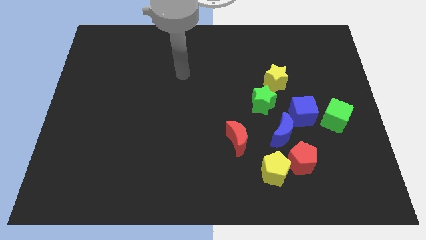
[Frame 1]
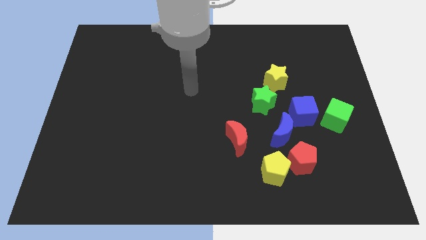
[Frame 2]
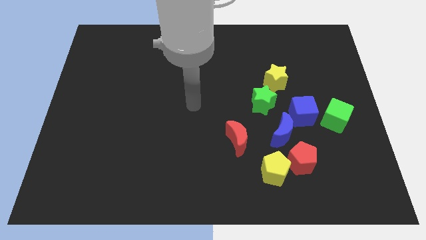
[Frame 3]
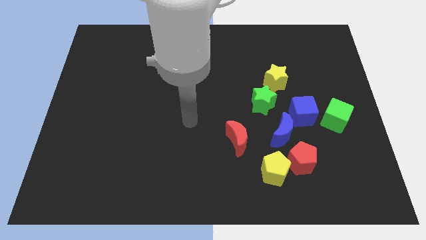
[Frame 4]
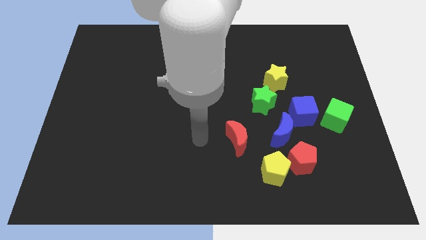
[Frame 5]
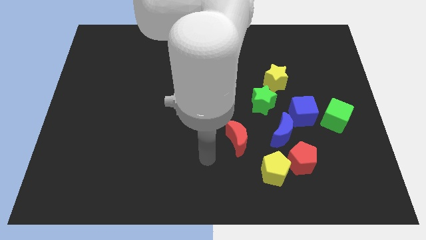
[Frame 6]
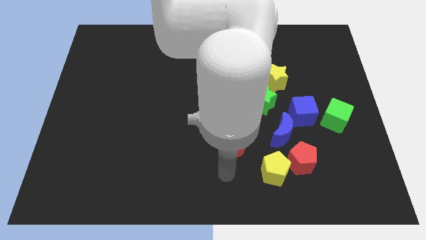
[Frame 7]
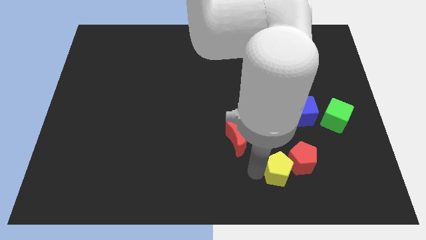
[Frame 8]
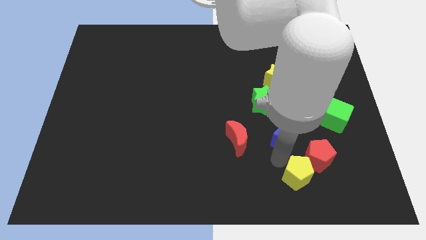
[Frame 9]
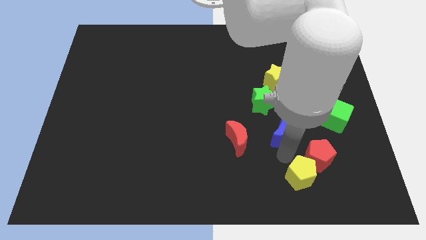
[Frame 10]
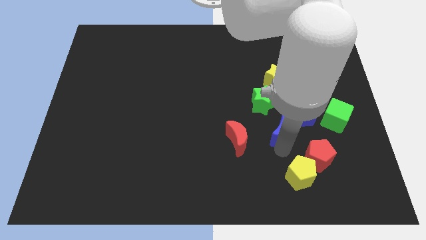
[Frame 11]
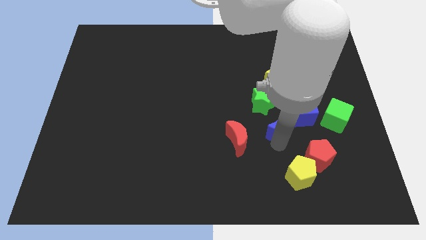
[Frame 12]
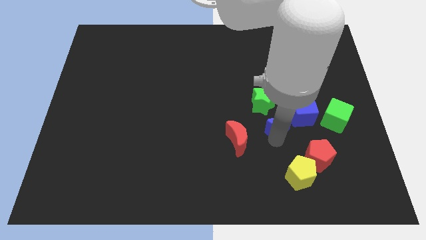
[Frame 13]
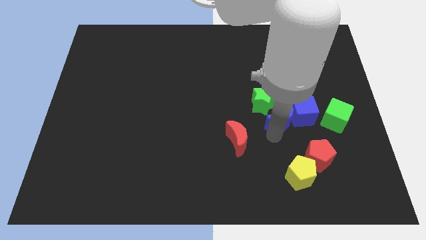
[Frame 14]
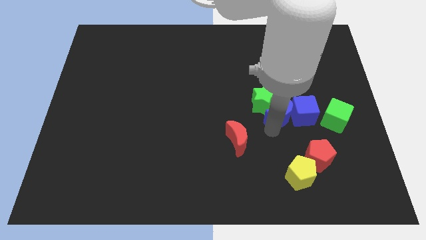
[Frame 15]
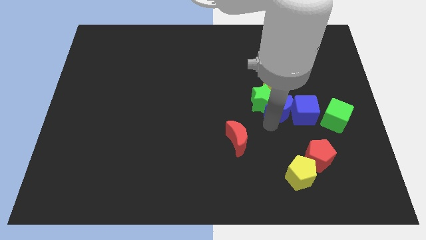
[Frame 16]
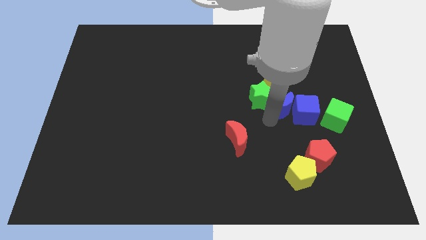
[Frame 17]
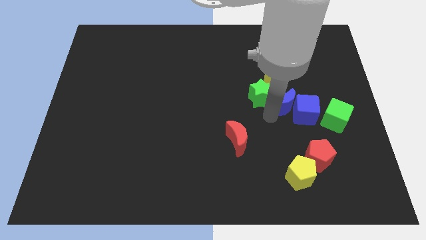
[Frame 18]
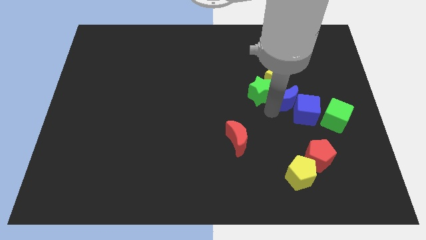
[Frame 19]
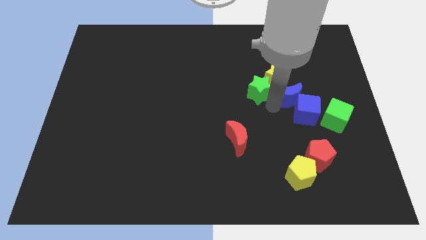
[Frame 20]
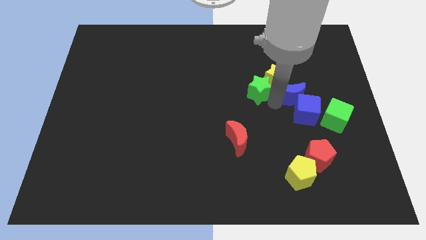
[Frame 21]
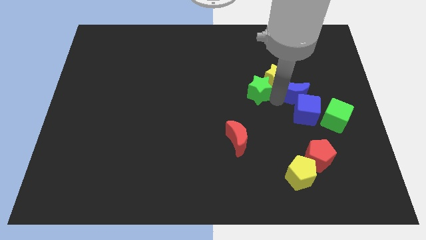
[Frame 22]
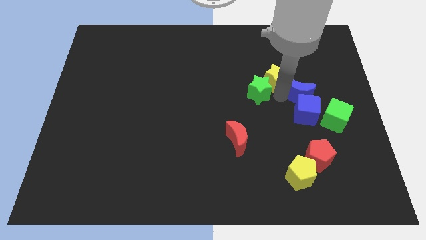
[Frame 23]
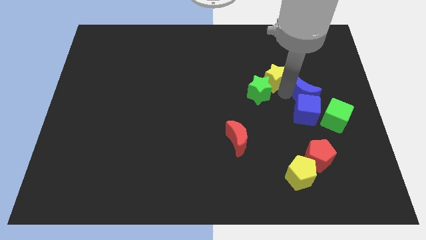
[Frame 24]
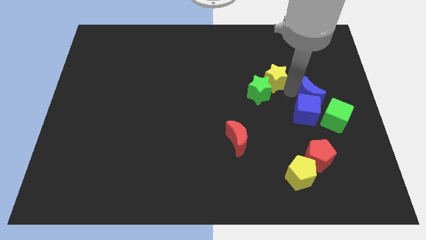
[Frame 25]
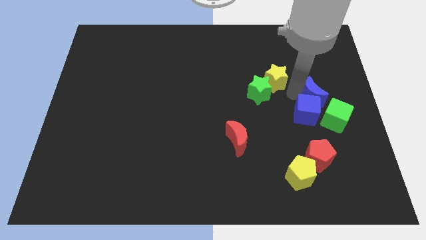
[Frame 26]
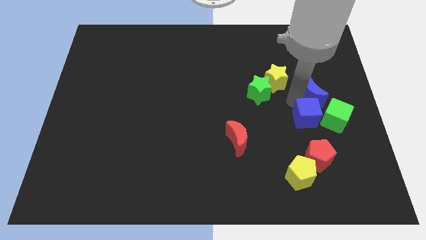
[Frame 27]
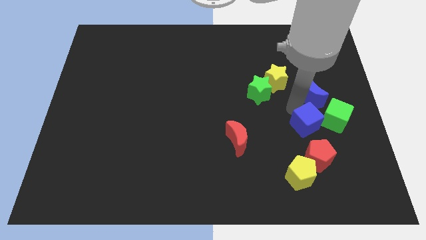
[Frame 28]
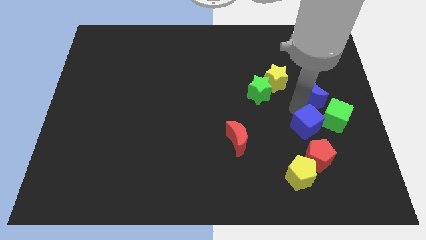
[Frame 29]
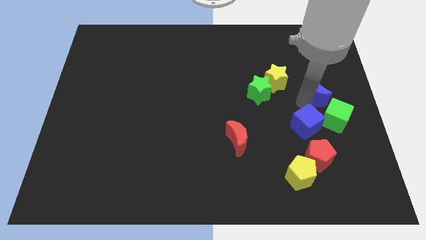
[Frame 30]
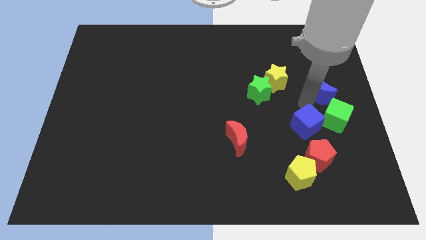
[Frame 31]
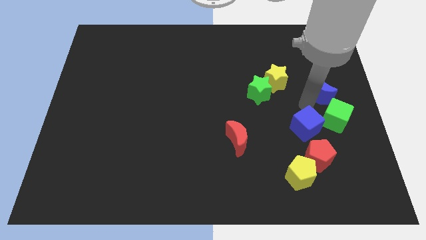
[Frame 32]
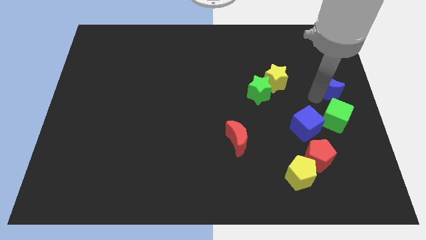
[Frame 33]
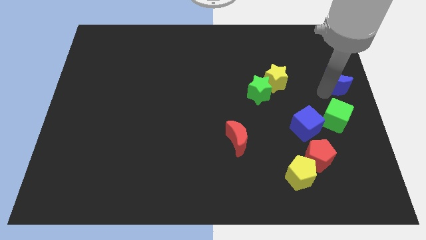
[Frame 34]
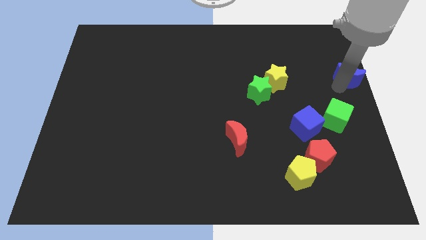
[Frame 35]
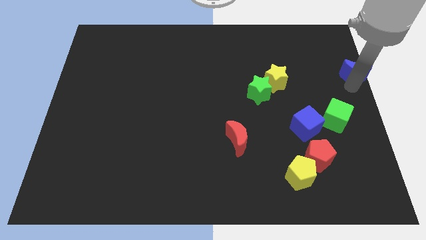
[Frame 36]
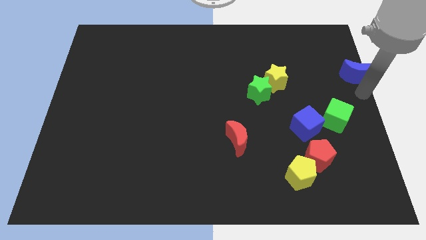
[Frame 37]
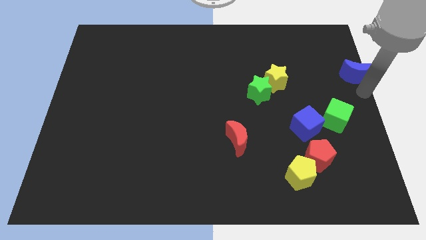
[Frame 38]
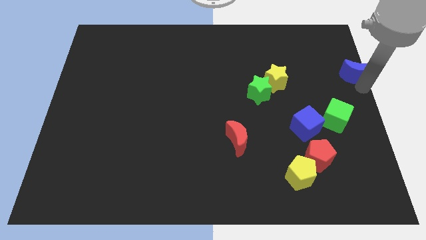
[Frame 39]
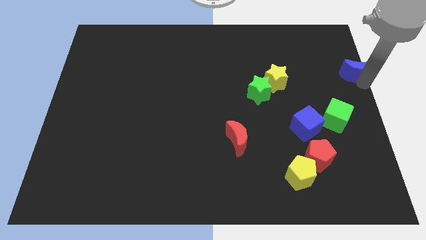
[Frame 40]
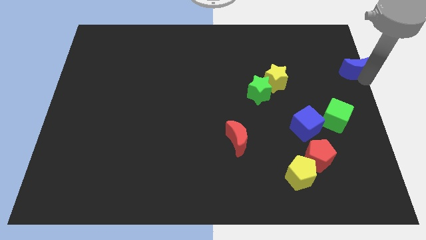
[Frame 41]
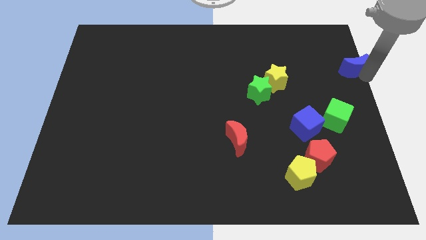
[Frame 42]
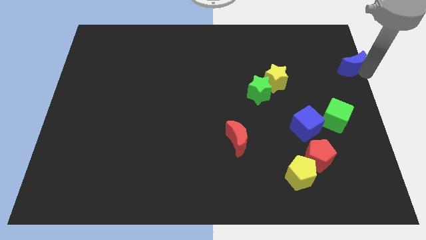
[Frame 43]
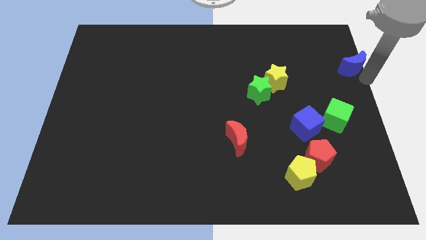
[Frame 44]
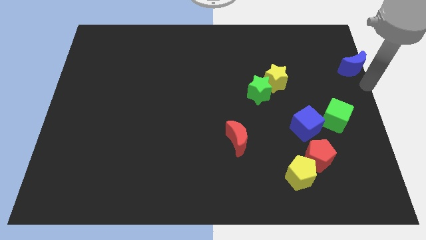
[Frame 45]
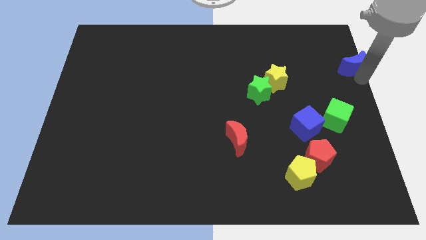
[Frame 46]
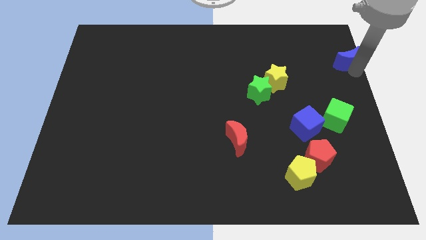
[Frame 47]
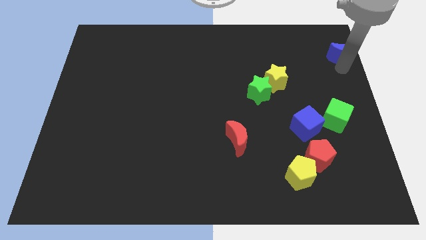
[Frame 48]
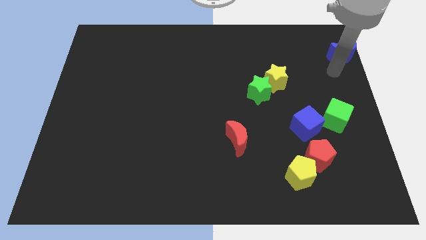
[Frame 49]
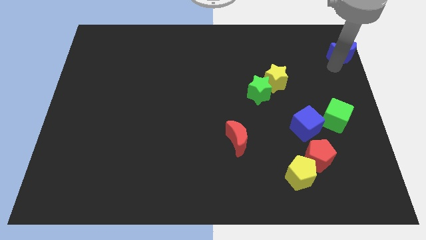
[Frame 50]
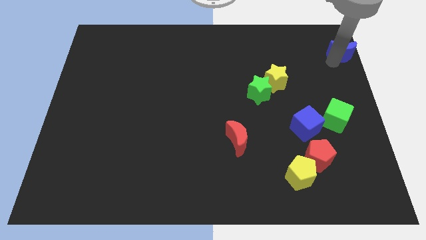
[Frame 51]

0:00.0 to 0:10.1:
slide the blue moon to the upper right corner

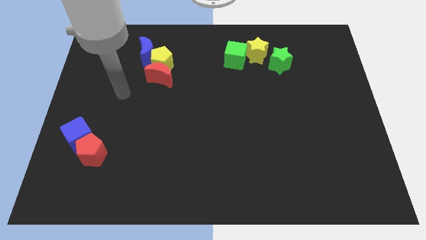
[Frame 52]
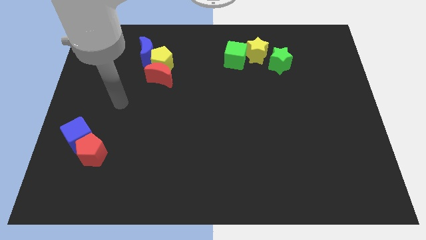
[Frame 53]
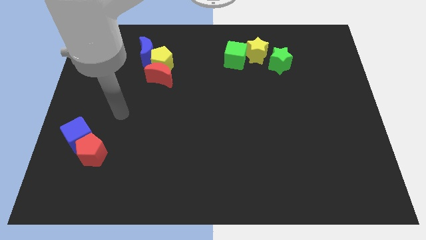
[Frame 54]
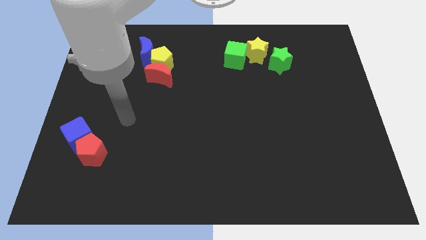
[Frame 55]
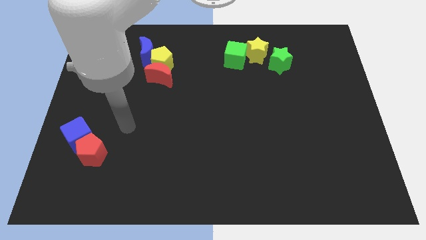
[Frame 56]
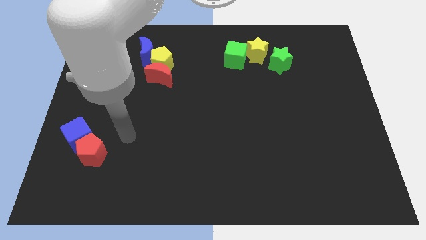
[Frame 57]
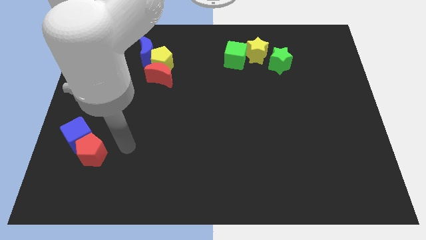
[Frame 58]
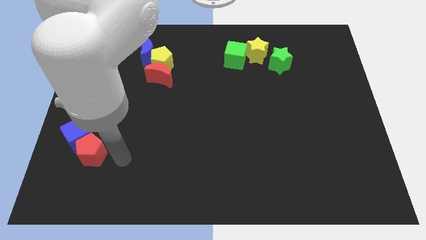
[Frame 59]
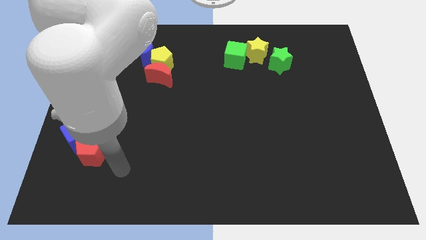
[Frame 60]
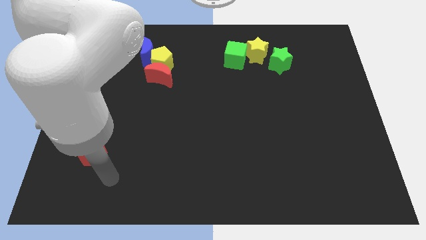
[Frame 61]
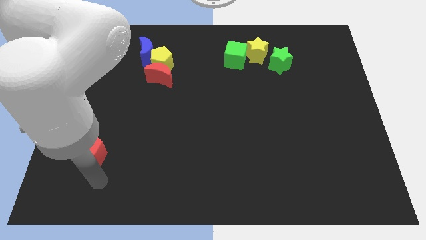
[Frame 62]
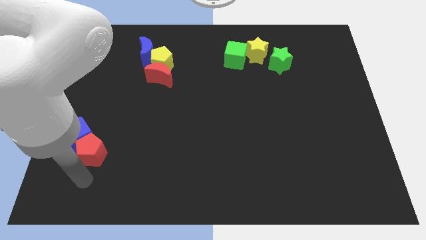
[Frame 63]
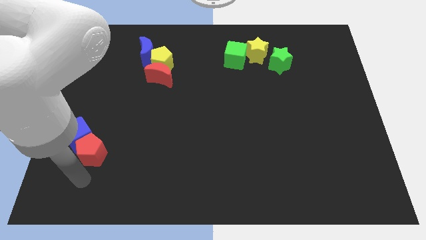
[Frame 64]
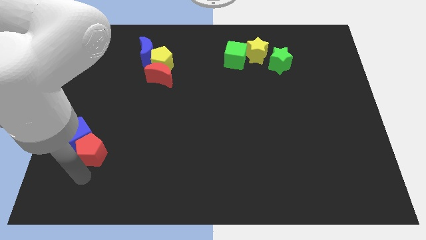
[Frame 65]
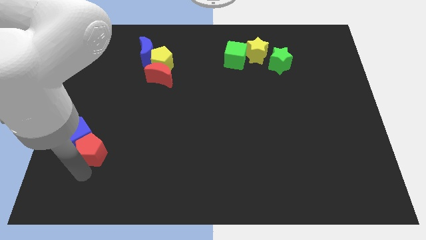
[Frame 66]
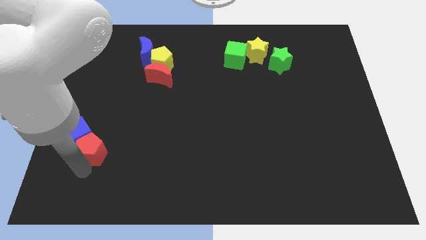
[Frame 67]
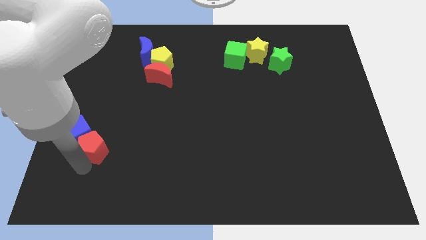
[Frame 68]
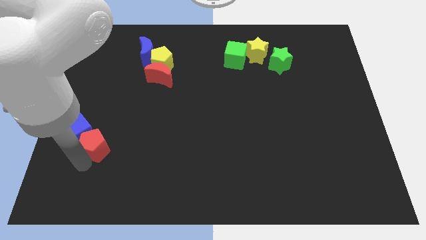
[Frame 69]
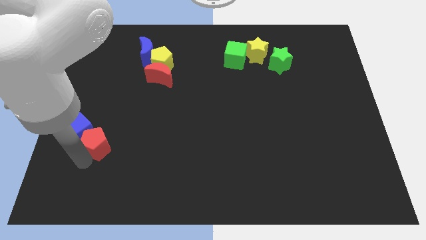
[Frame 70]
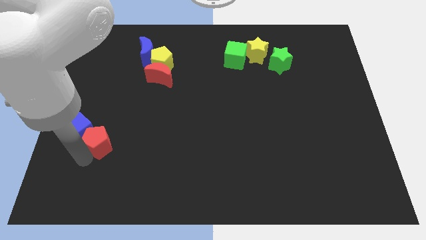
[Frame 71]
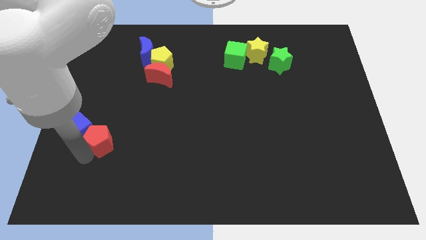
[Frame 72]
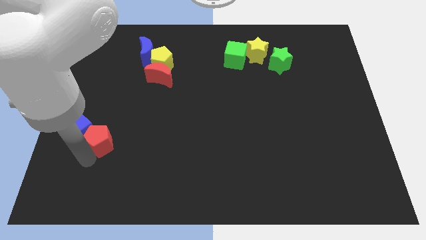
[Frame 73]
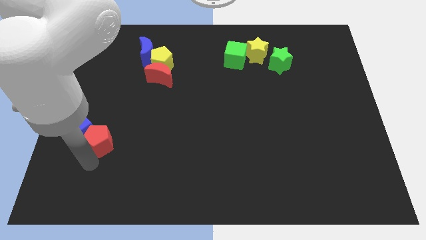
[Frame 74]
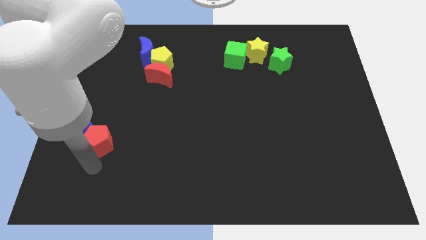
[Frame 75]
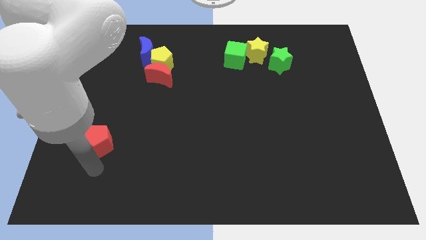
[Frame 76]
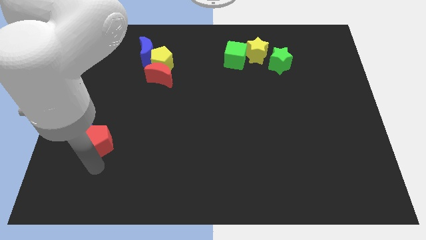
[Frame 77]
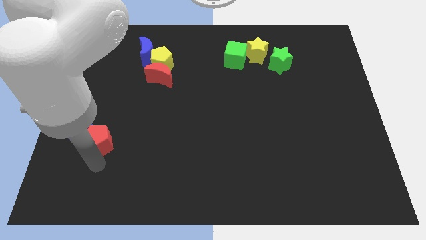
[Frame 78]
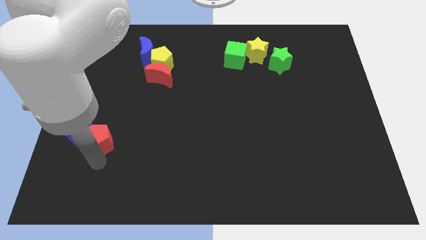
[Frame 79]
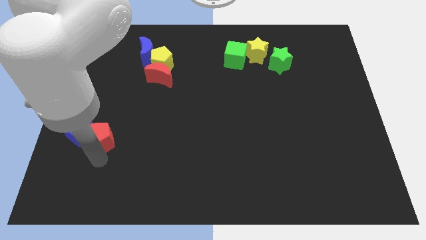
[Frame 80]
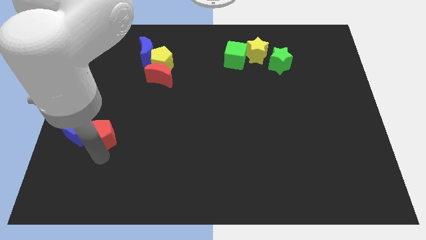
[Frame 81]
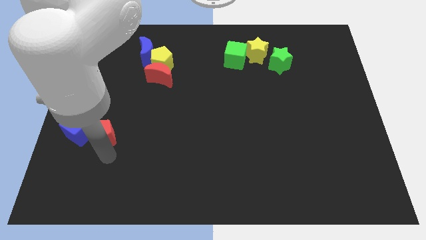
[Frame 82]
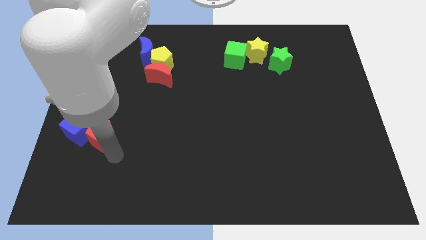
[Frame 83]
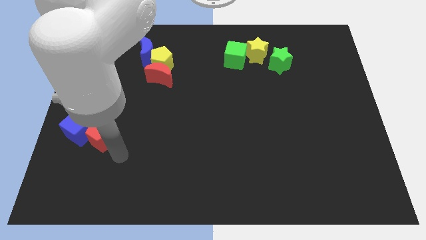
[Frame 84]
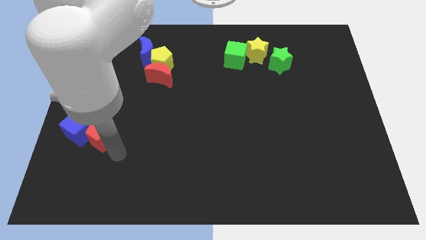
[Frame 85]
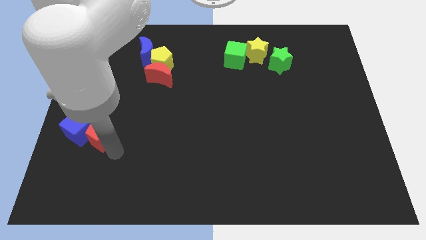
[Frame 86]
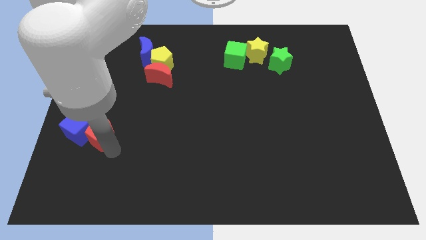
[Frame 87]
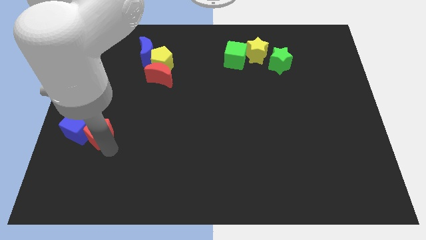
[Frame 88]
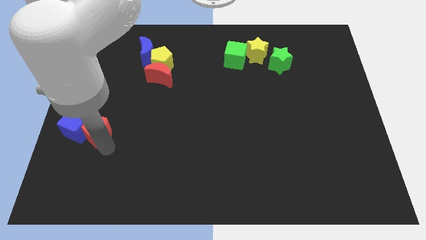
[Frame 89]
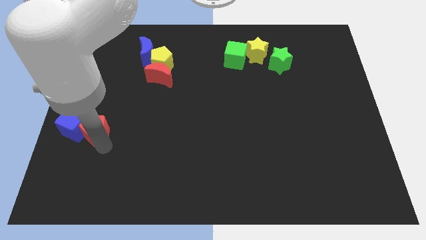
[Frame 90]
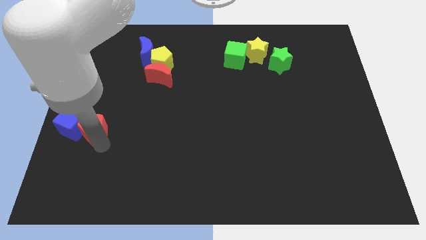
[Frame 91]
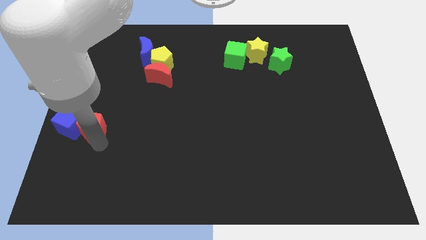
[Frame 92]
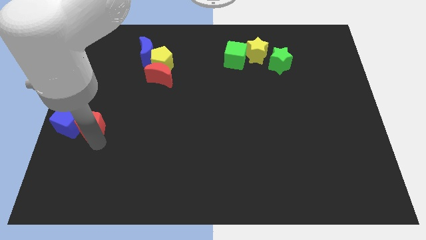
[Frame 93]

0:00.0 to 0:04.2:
move the red pentagon to the center left
